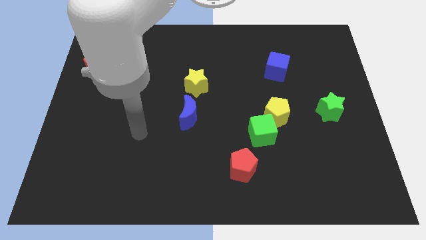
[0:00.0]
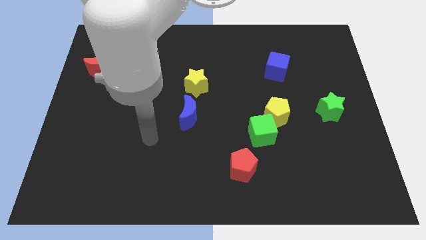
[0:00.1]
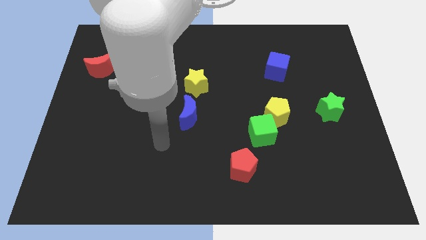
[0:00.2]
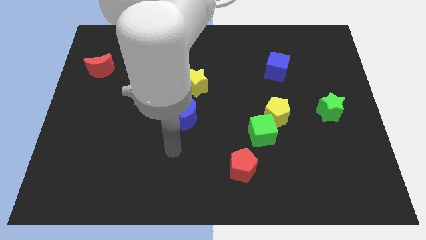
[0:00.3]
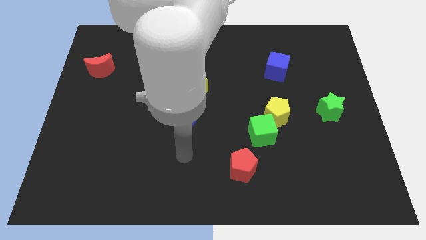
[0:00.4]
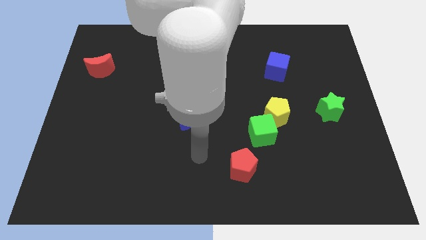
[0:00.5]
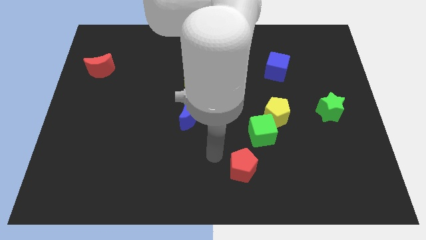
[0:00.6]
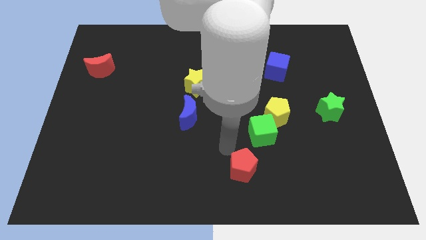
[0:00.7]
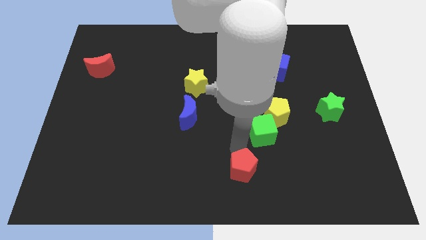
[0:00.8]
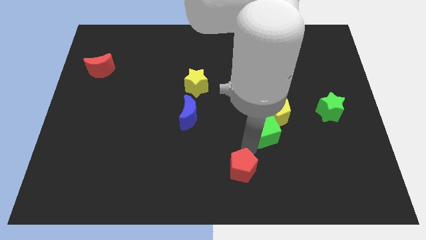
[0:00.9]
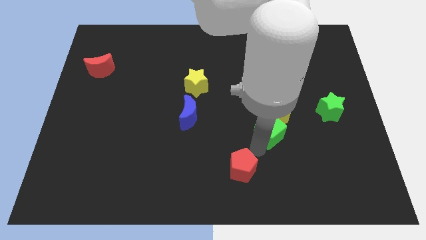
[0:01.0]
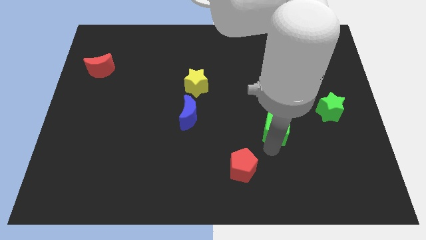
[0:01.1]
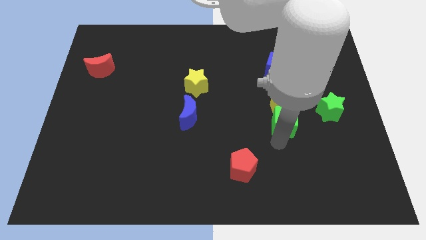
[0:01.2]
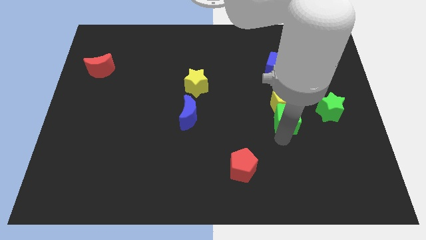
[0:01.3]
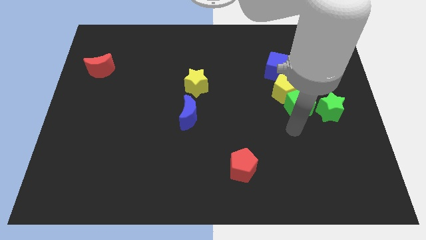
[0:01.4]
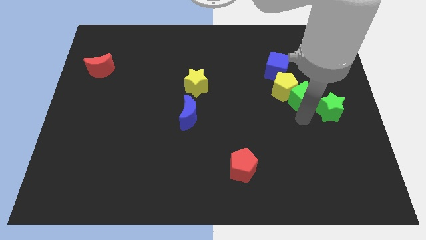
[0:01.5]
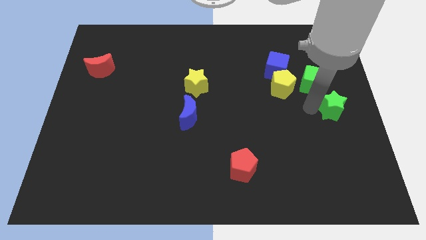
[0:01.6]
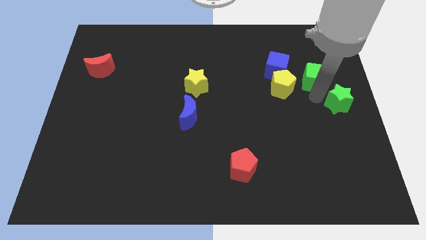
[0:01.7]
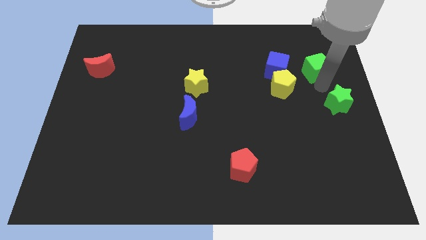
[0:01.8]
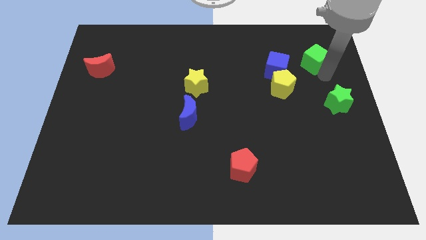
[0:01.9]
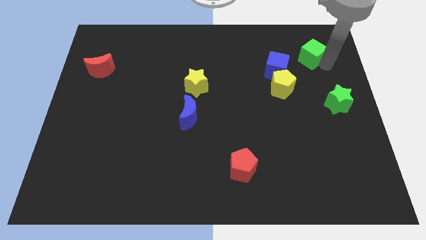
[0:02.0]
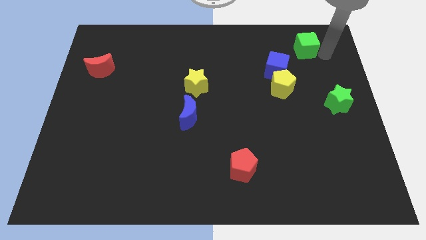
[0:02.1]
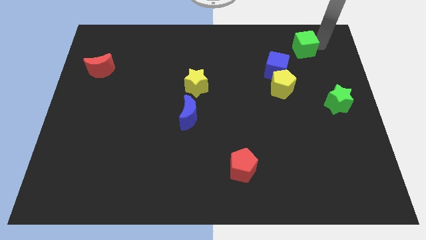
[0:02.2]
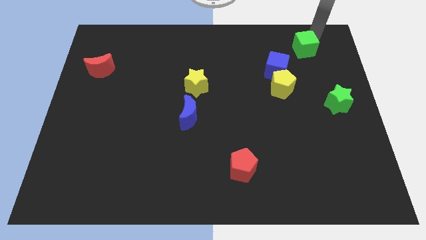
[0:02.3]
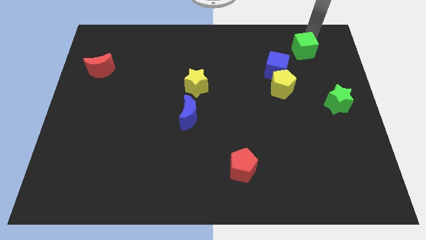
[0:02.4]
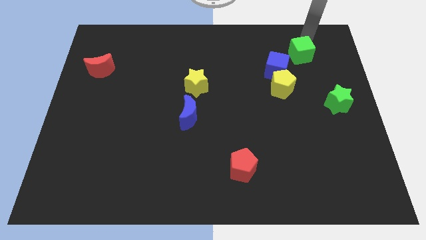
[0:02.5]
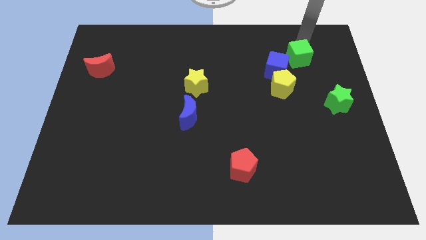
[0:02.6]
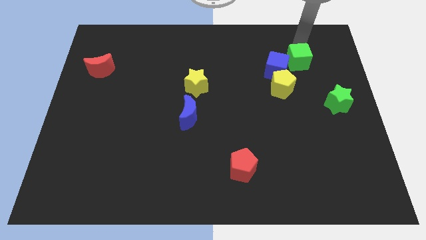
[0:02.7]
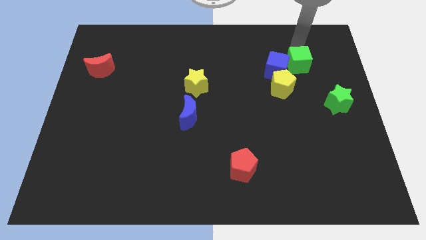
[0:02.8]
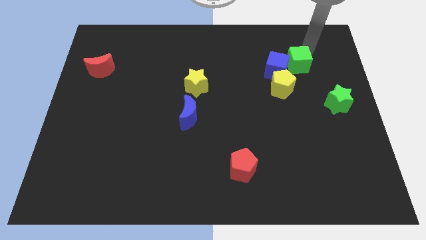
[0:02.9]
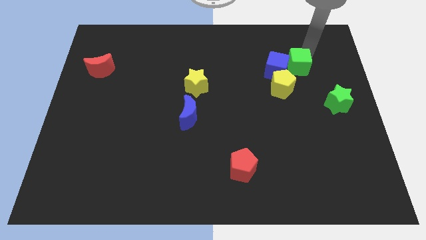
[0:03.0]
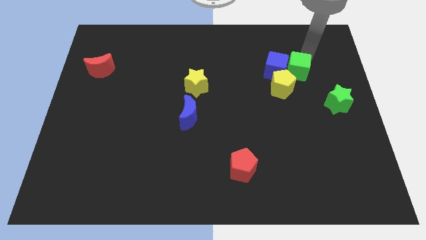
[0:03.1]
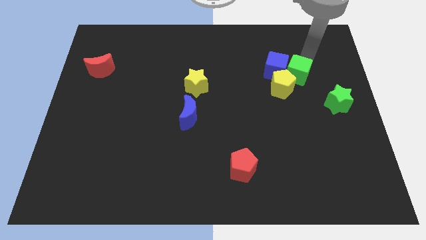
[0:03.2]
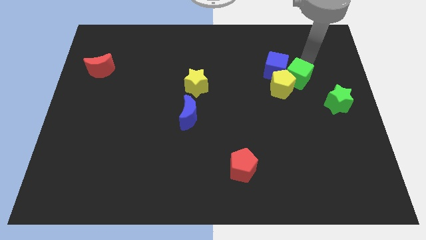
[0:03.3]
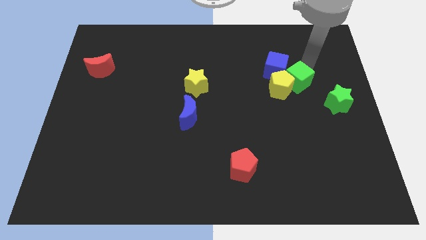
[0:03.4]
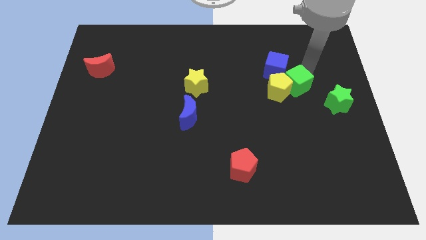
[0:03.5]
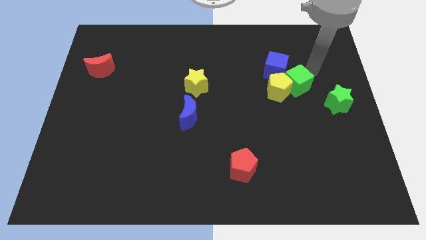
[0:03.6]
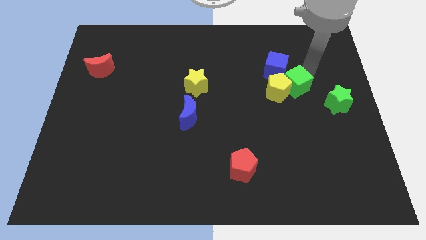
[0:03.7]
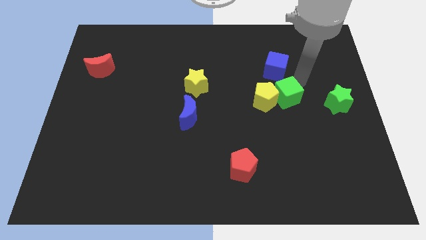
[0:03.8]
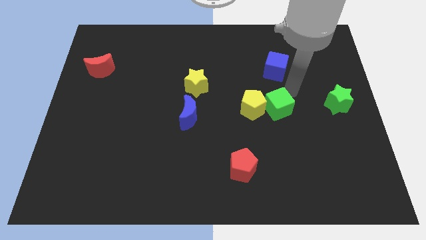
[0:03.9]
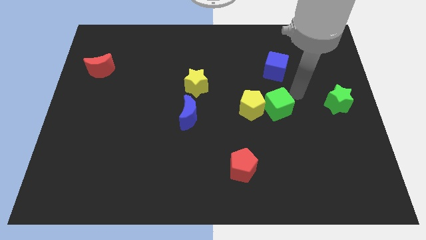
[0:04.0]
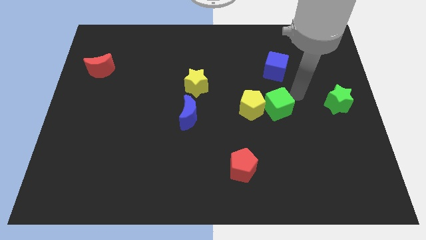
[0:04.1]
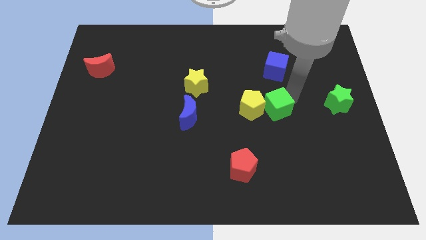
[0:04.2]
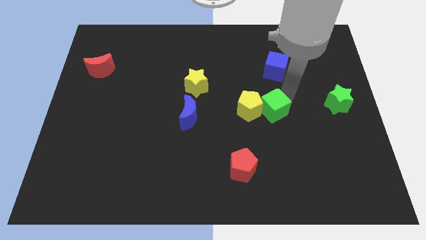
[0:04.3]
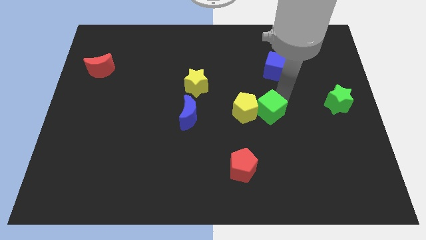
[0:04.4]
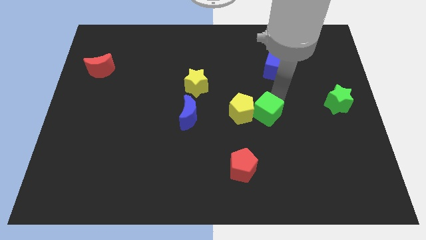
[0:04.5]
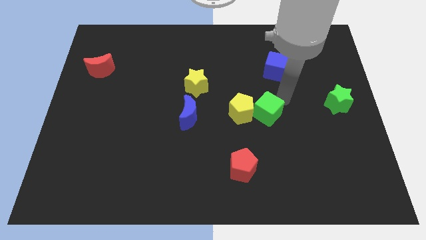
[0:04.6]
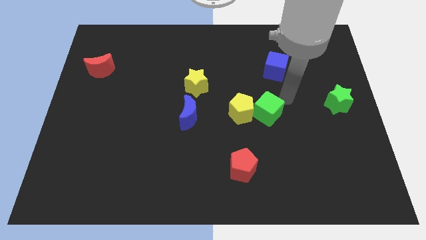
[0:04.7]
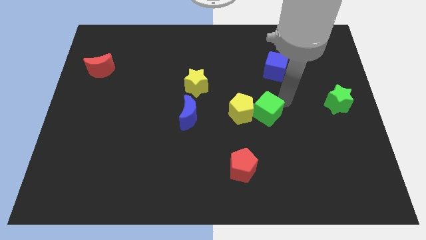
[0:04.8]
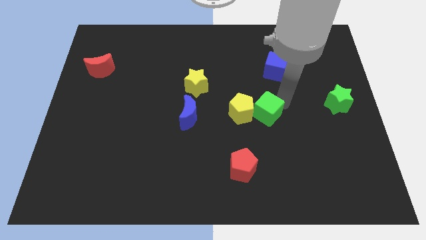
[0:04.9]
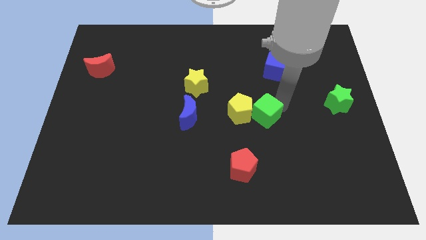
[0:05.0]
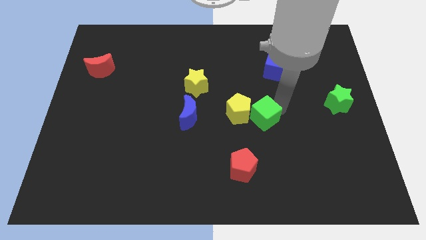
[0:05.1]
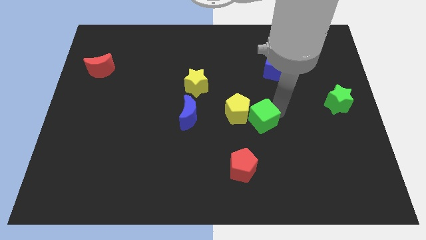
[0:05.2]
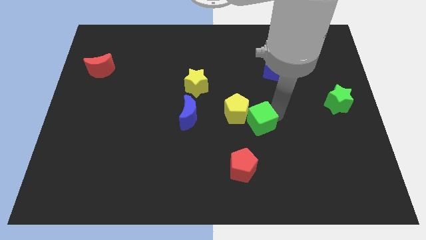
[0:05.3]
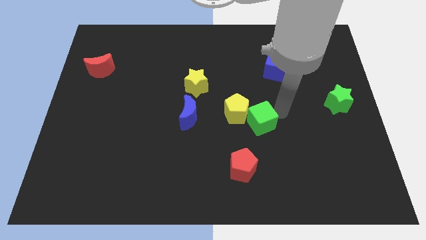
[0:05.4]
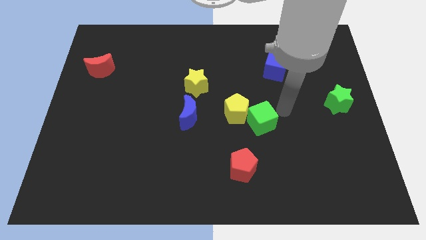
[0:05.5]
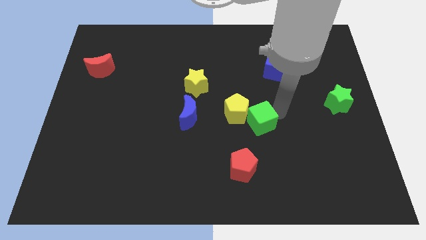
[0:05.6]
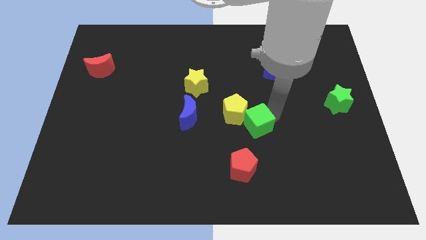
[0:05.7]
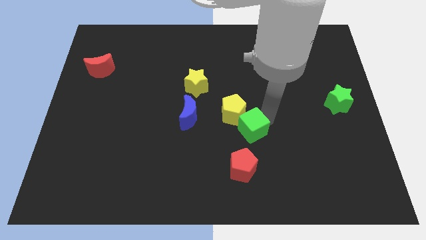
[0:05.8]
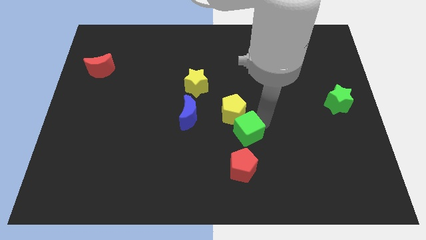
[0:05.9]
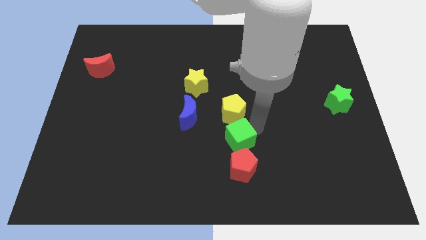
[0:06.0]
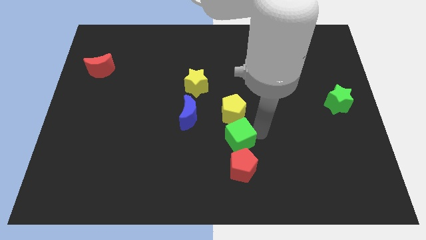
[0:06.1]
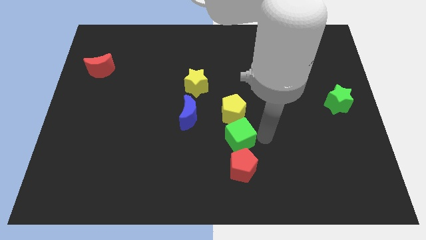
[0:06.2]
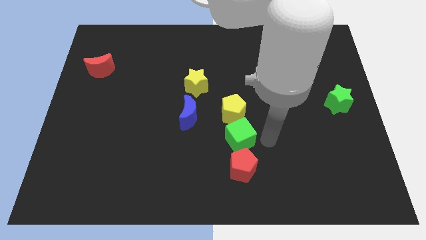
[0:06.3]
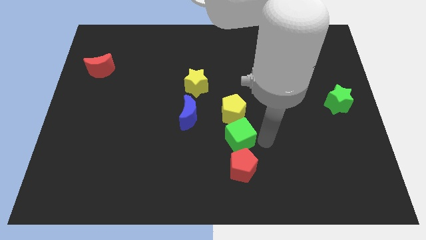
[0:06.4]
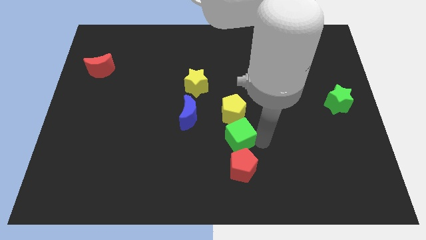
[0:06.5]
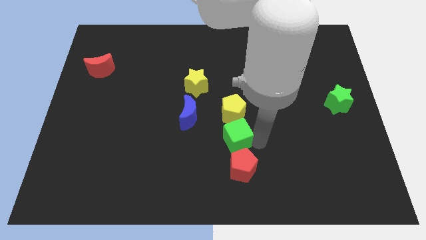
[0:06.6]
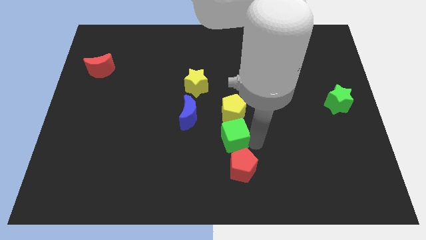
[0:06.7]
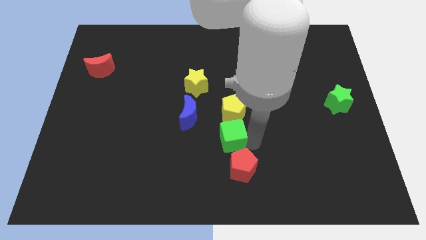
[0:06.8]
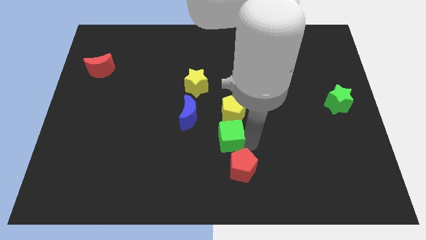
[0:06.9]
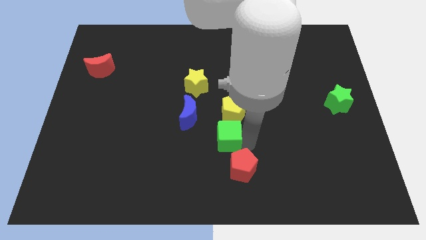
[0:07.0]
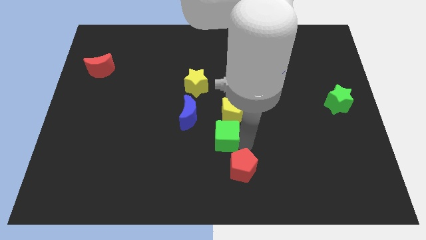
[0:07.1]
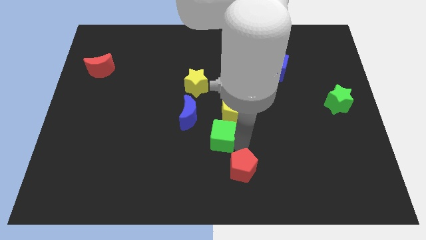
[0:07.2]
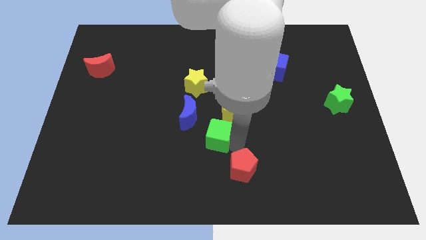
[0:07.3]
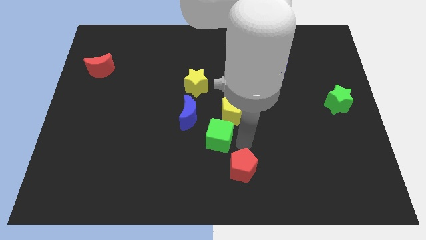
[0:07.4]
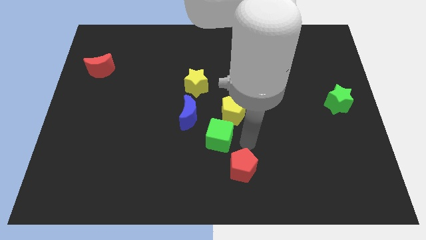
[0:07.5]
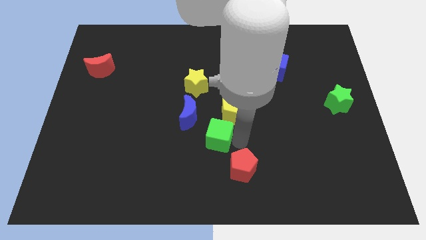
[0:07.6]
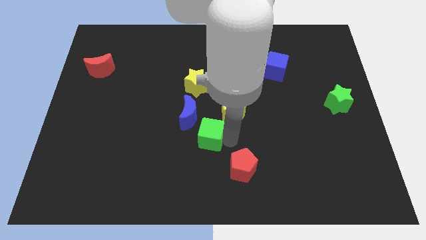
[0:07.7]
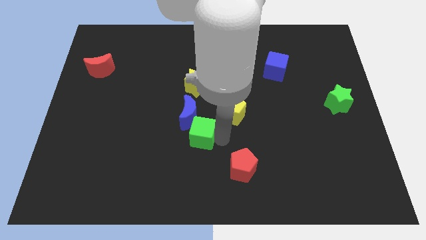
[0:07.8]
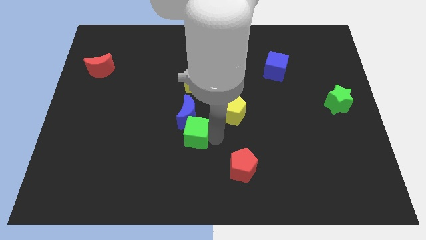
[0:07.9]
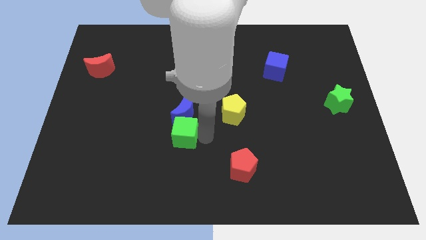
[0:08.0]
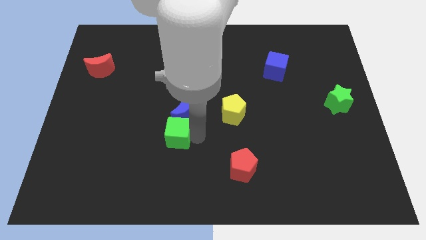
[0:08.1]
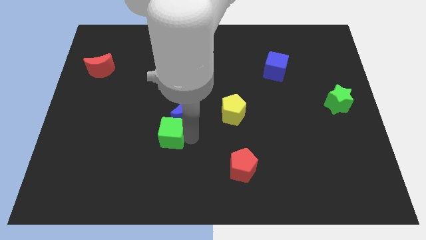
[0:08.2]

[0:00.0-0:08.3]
slide the green cube to the left
